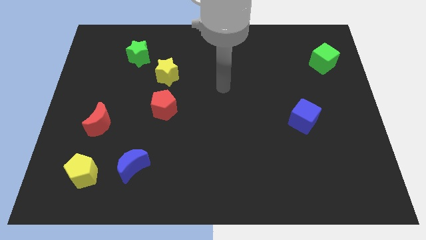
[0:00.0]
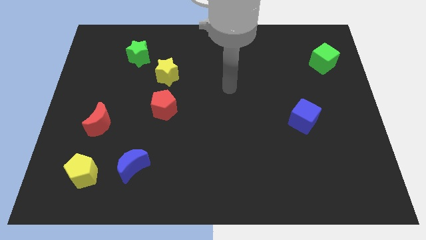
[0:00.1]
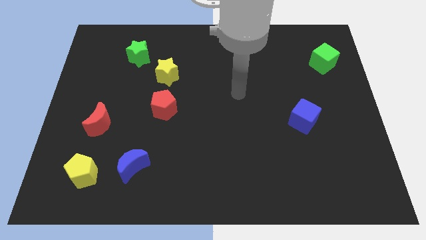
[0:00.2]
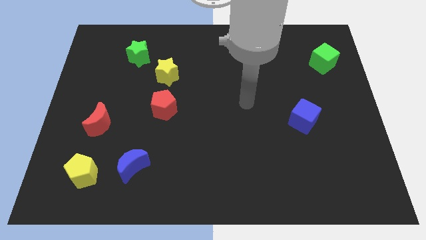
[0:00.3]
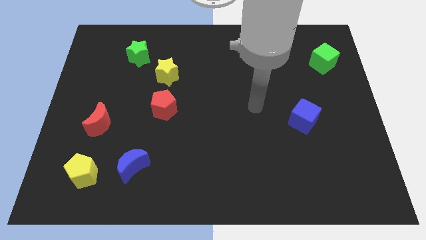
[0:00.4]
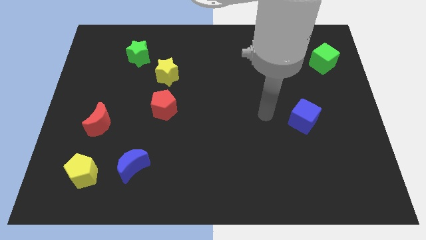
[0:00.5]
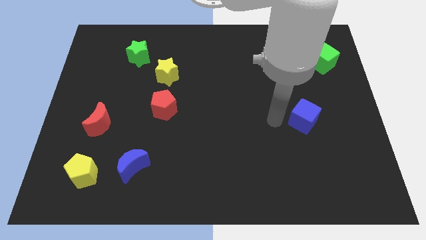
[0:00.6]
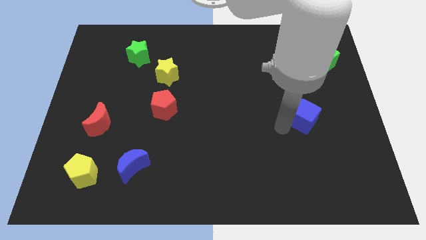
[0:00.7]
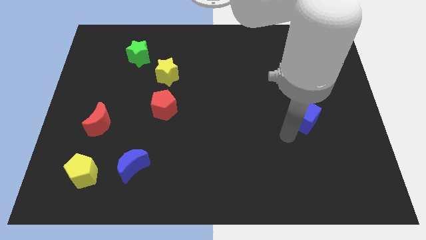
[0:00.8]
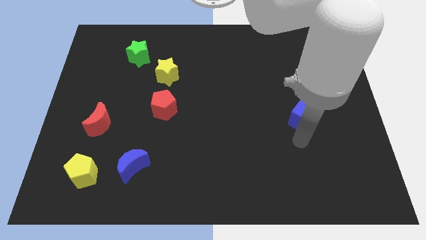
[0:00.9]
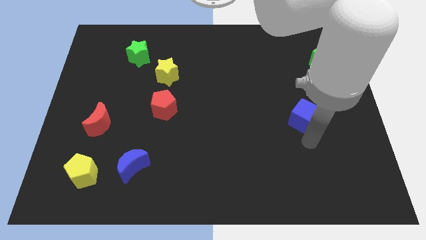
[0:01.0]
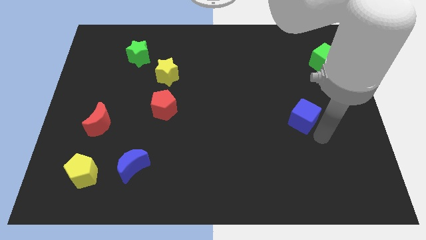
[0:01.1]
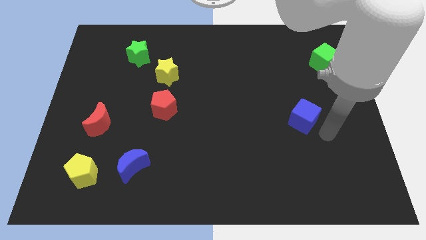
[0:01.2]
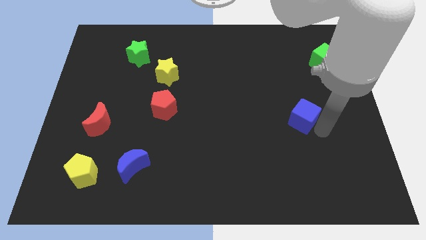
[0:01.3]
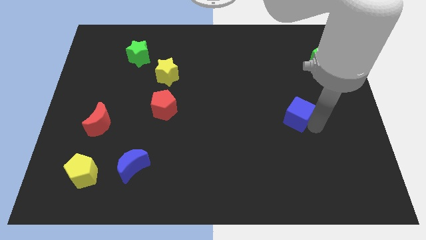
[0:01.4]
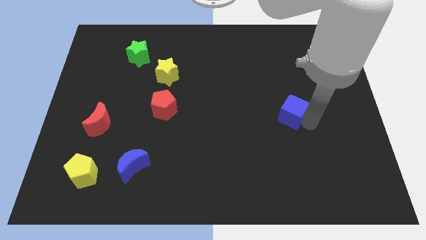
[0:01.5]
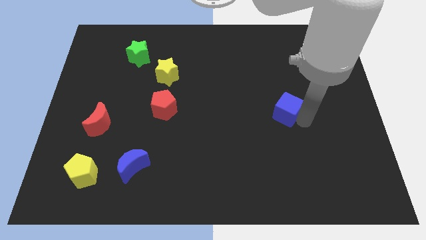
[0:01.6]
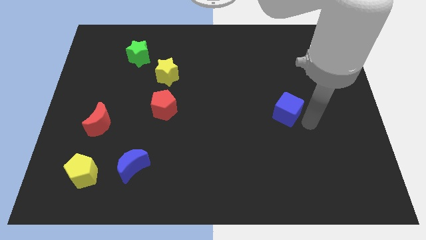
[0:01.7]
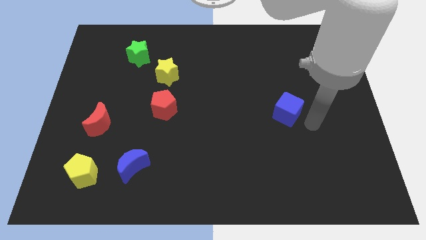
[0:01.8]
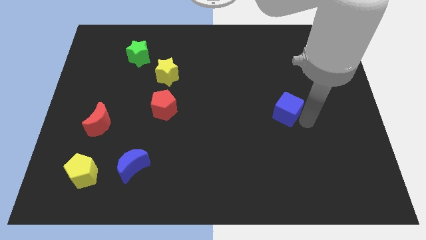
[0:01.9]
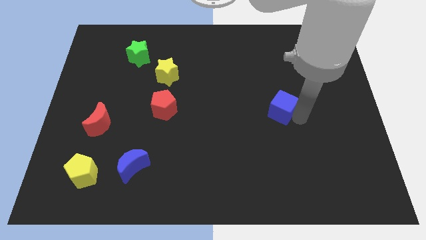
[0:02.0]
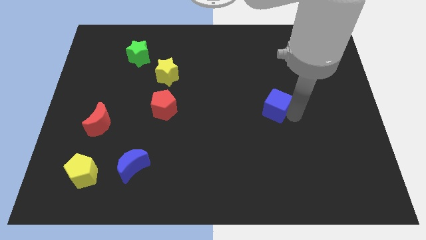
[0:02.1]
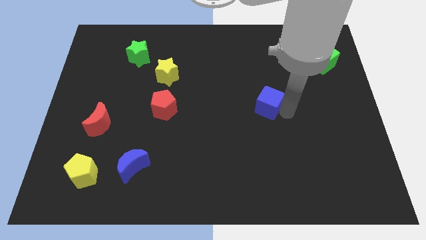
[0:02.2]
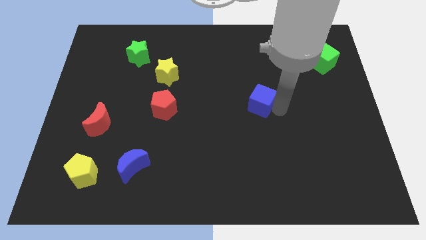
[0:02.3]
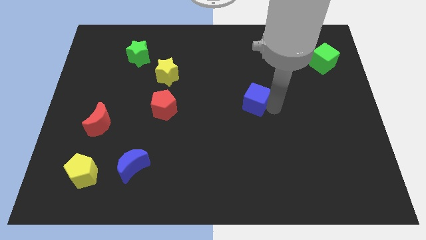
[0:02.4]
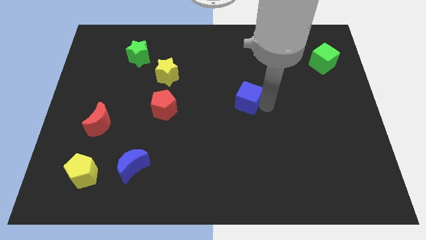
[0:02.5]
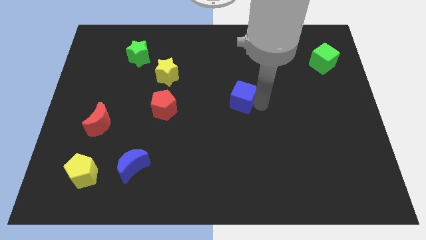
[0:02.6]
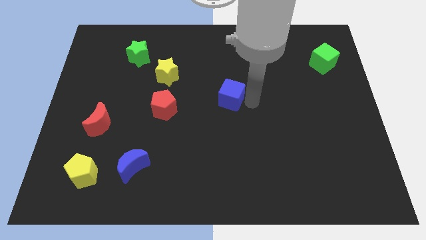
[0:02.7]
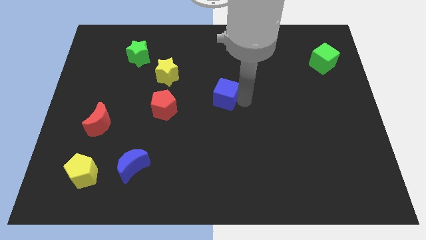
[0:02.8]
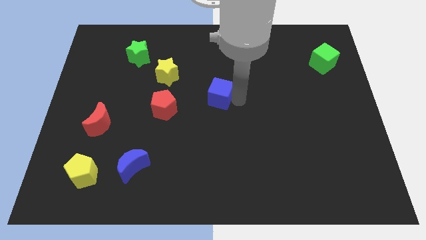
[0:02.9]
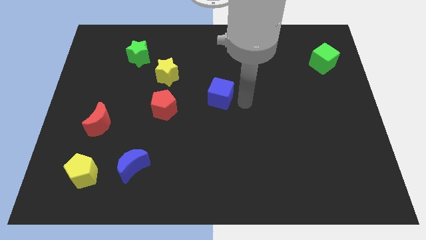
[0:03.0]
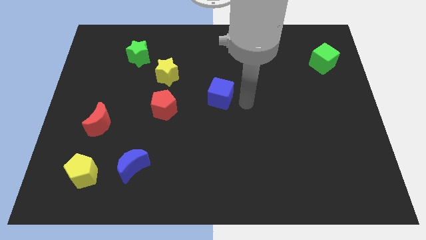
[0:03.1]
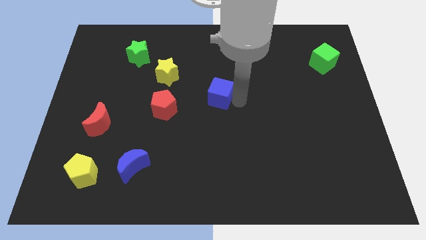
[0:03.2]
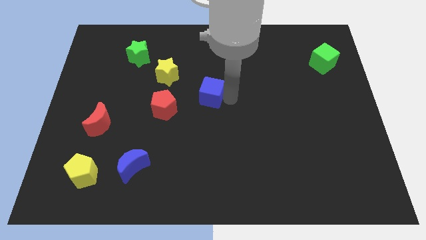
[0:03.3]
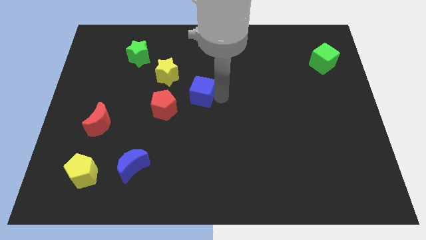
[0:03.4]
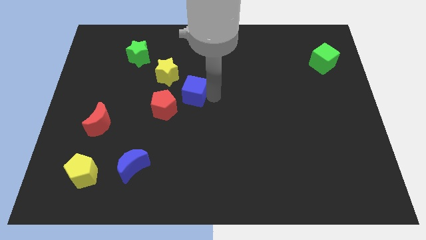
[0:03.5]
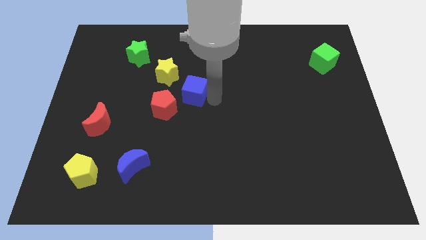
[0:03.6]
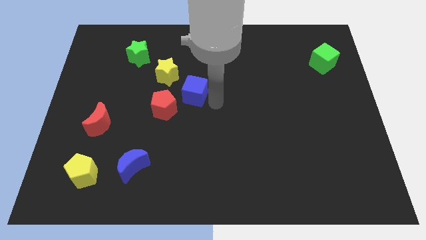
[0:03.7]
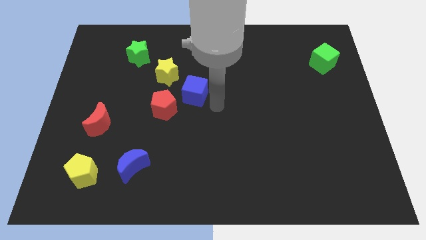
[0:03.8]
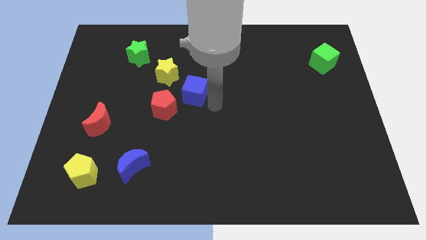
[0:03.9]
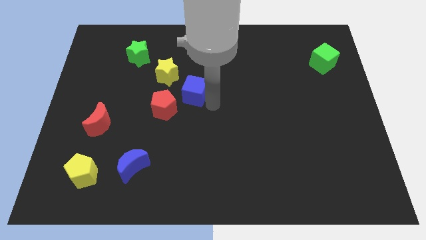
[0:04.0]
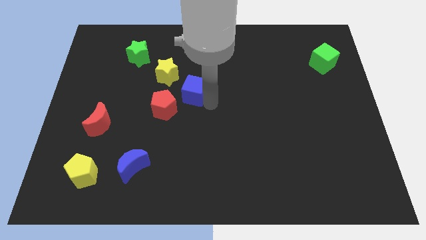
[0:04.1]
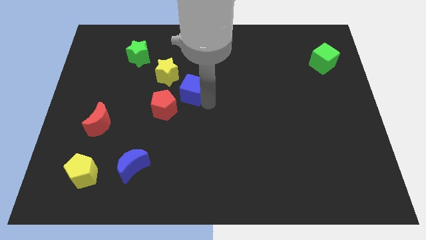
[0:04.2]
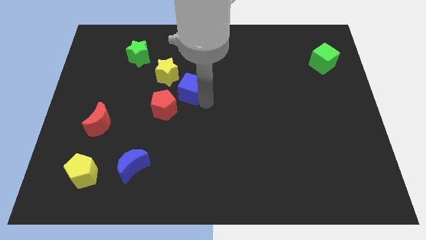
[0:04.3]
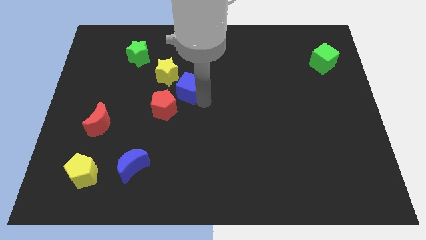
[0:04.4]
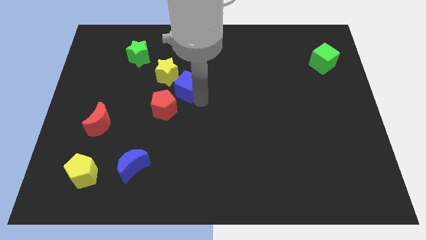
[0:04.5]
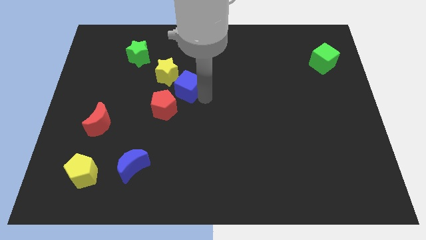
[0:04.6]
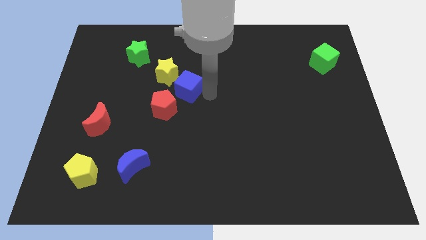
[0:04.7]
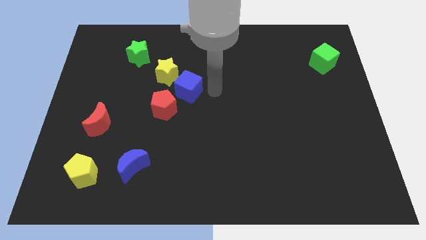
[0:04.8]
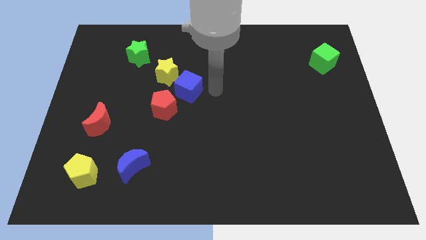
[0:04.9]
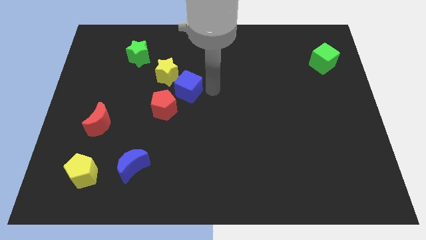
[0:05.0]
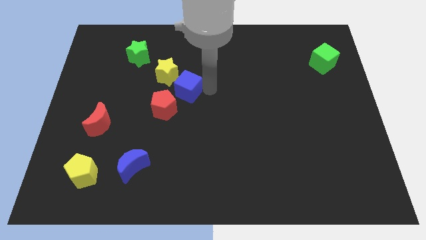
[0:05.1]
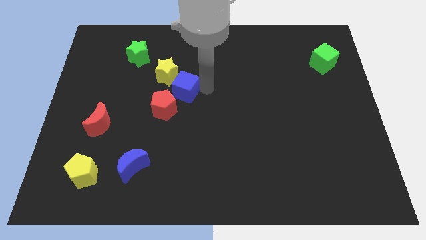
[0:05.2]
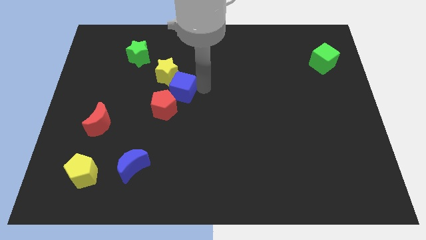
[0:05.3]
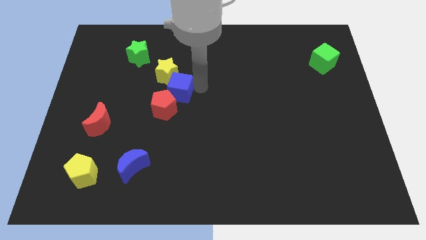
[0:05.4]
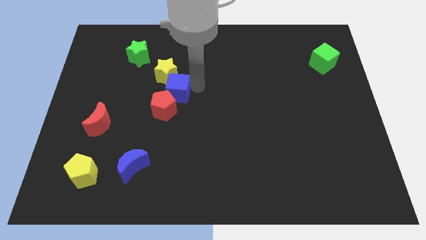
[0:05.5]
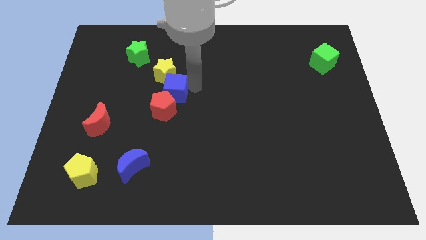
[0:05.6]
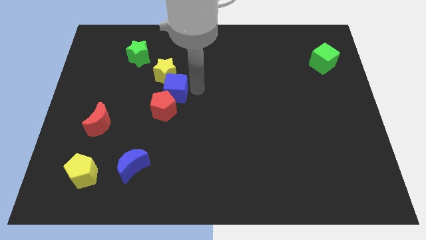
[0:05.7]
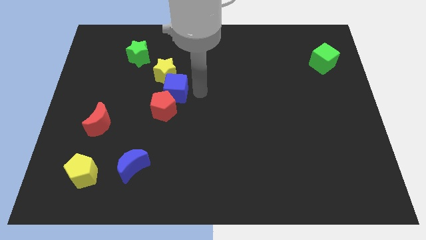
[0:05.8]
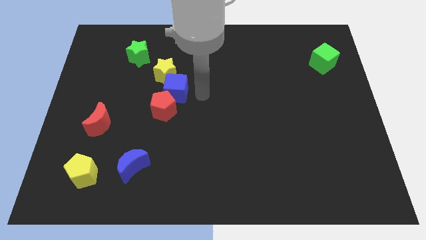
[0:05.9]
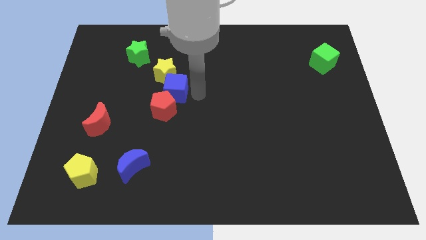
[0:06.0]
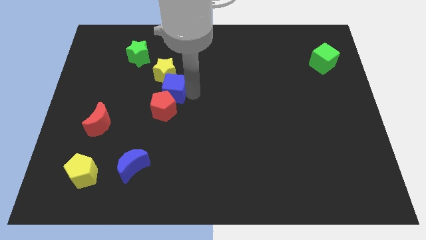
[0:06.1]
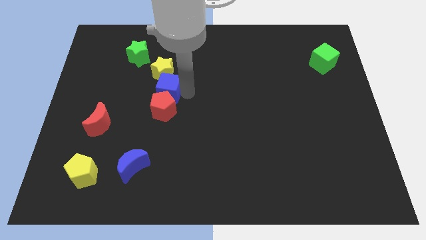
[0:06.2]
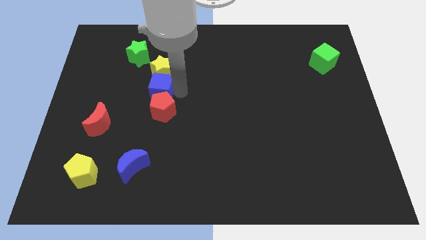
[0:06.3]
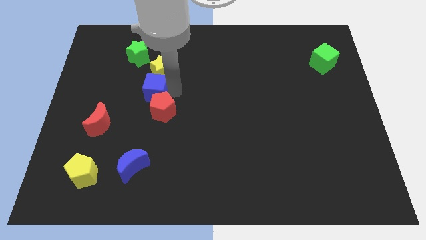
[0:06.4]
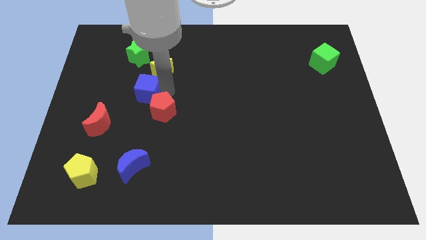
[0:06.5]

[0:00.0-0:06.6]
slide the blue cube below the green star

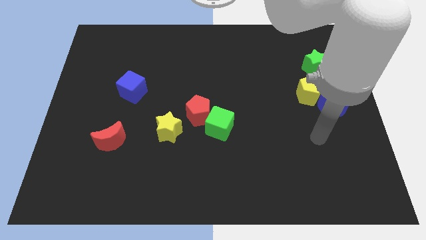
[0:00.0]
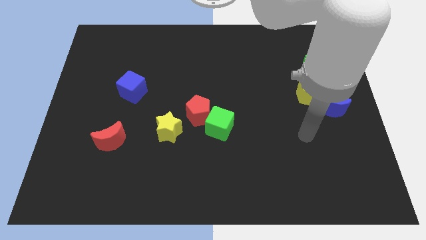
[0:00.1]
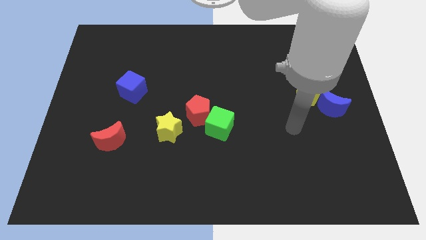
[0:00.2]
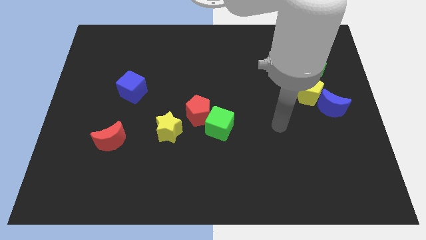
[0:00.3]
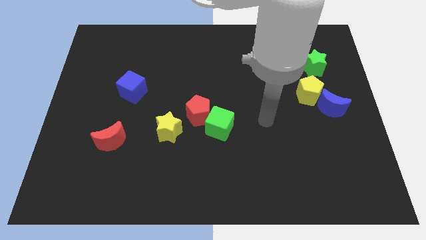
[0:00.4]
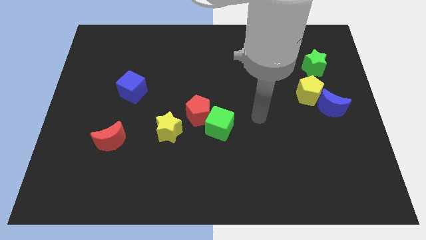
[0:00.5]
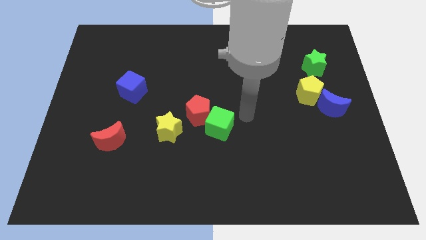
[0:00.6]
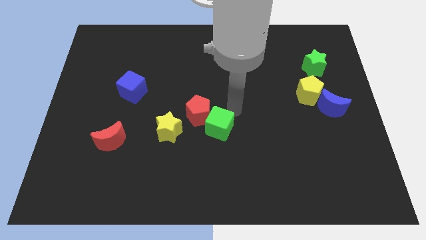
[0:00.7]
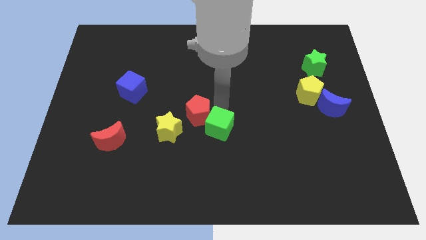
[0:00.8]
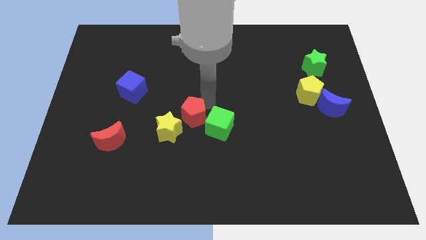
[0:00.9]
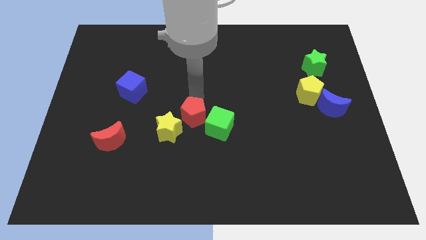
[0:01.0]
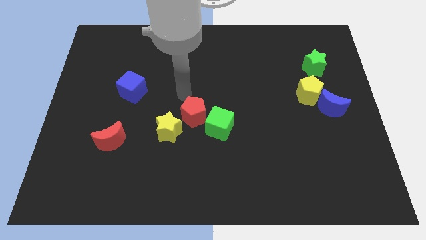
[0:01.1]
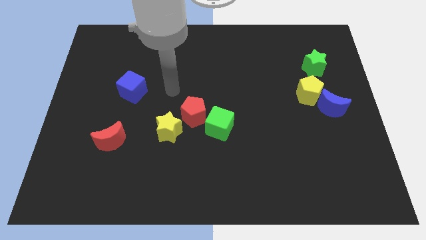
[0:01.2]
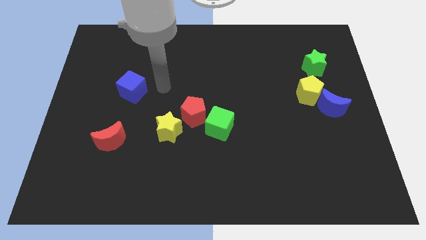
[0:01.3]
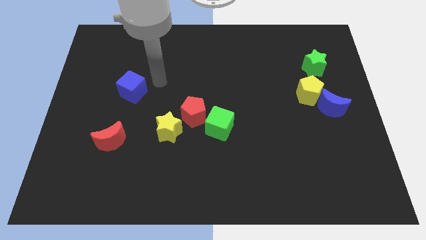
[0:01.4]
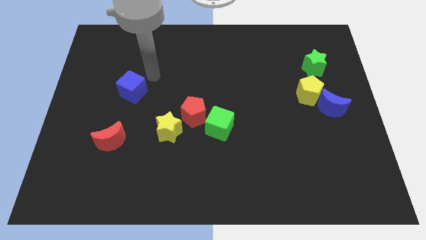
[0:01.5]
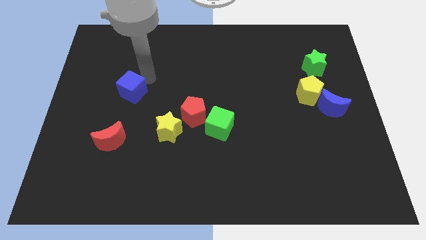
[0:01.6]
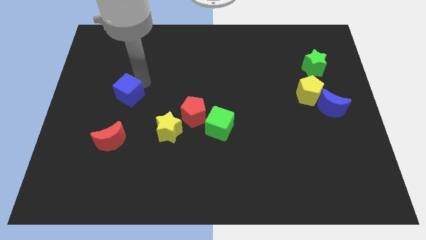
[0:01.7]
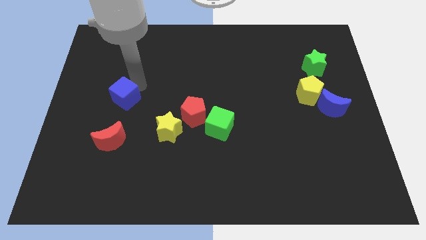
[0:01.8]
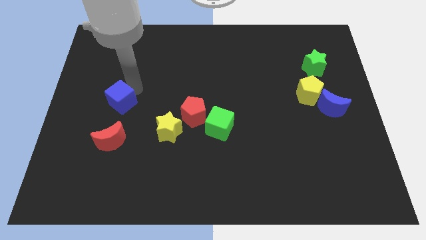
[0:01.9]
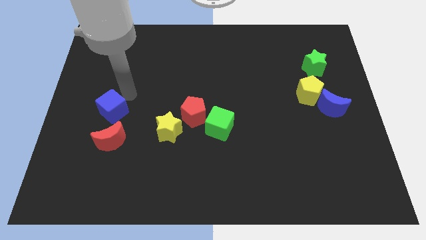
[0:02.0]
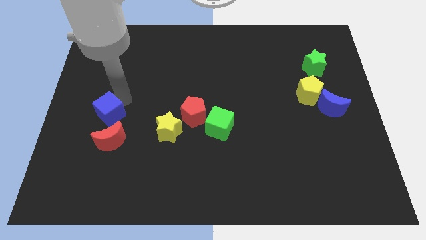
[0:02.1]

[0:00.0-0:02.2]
move the blue cube to the top left side of the red moon
